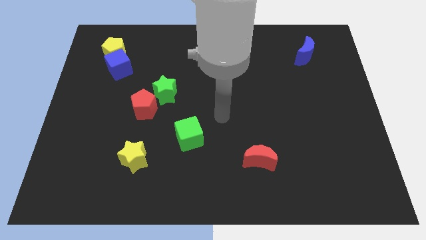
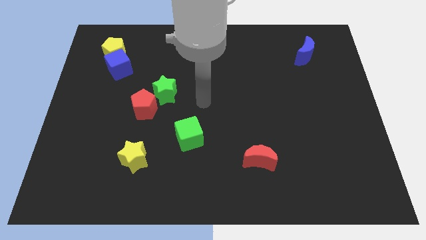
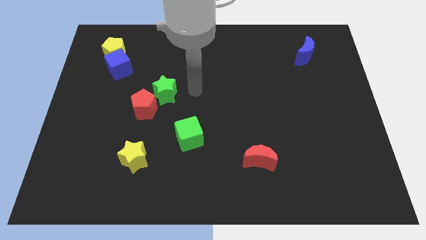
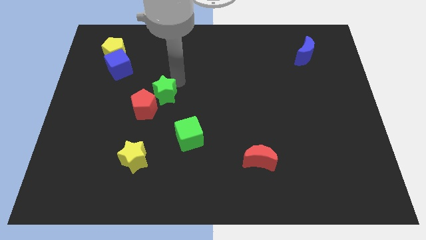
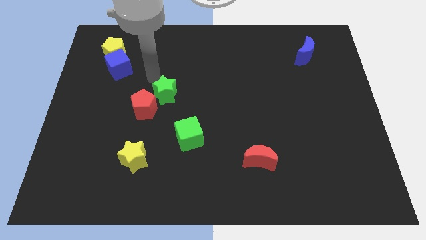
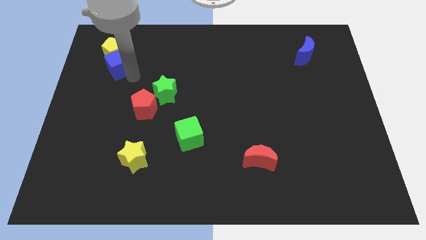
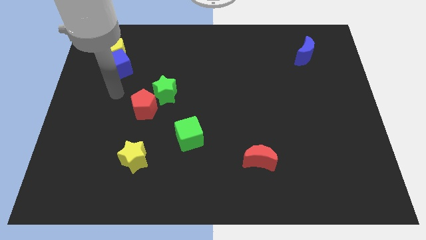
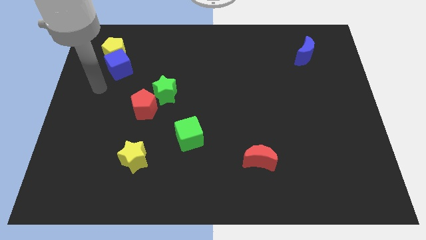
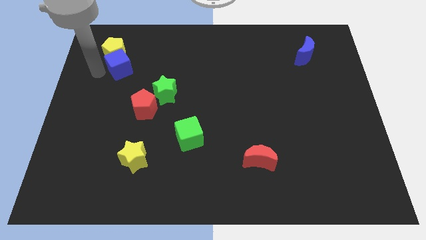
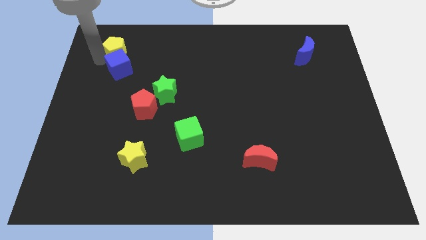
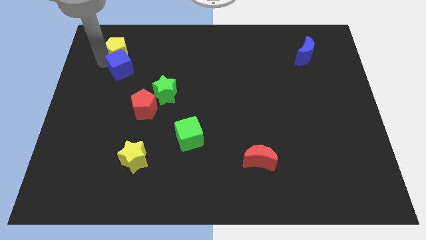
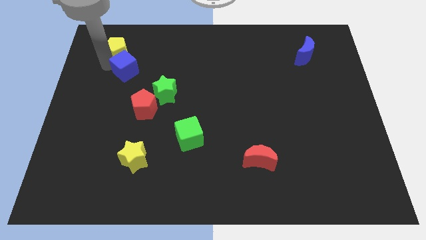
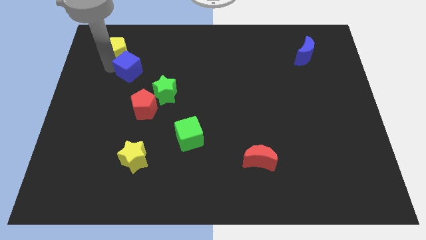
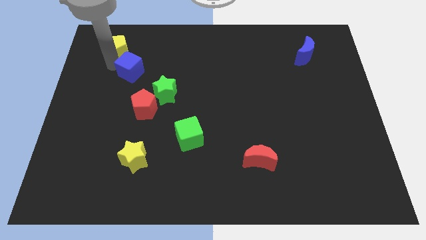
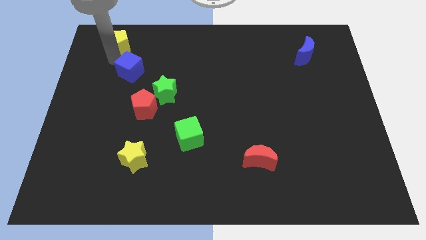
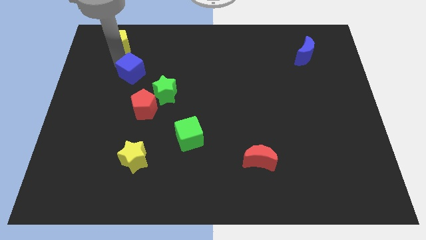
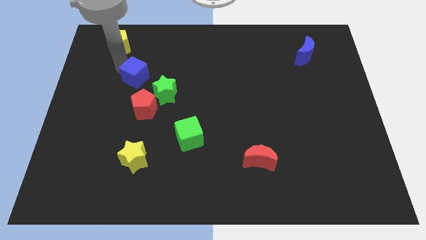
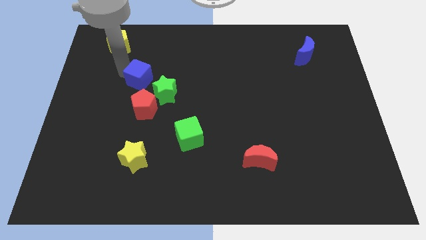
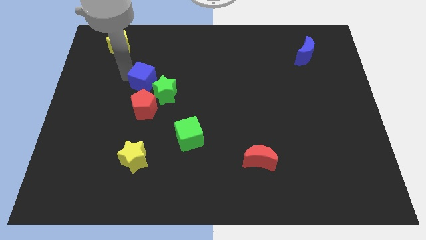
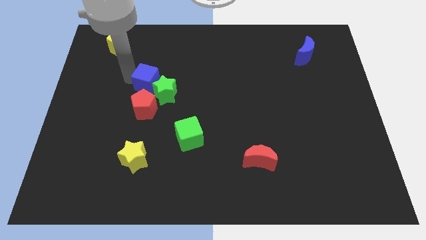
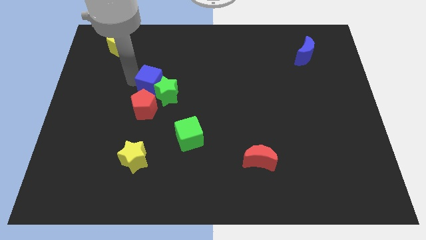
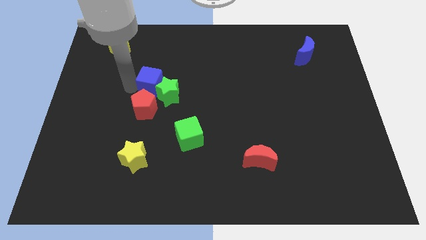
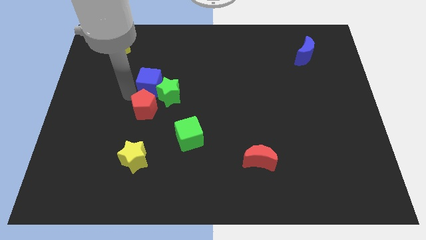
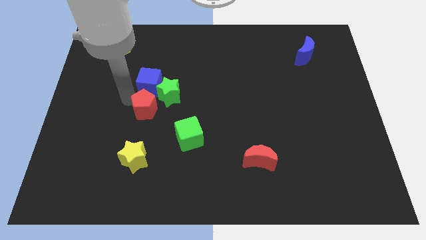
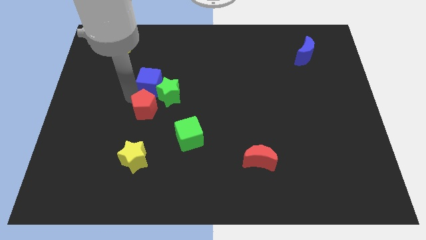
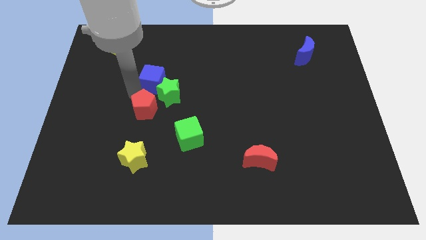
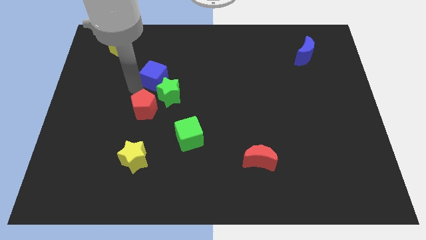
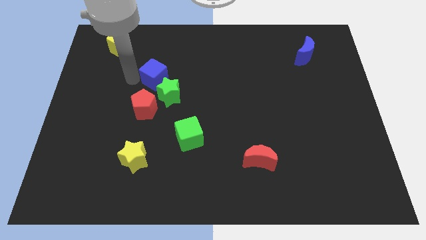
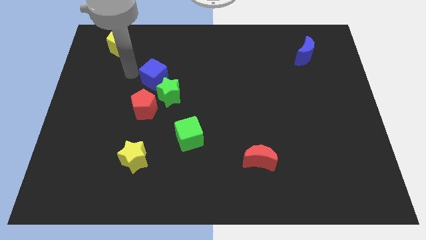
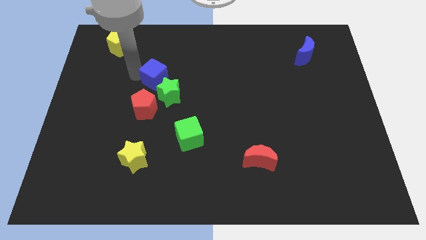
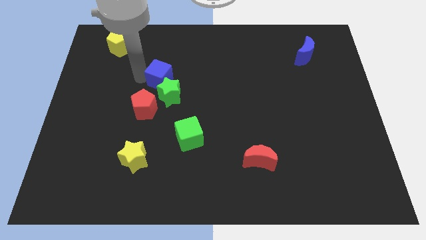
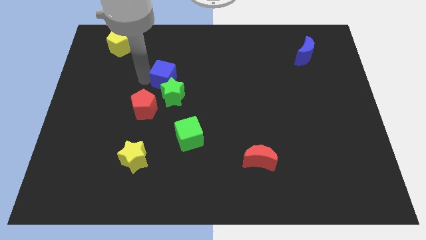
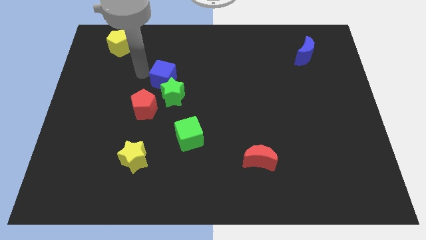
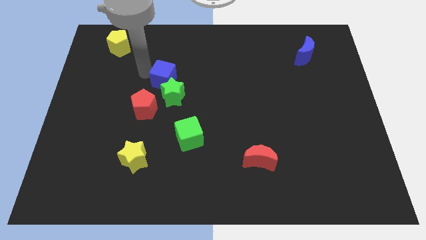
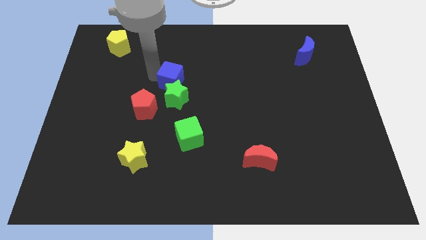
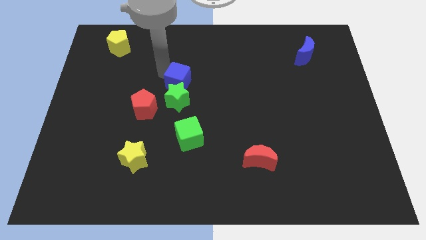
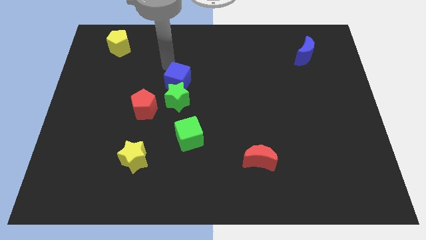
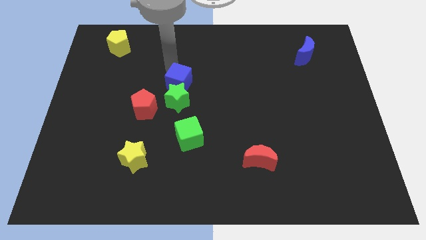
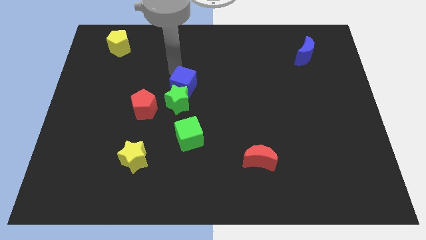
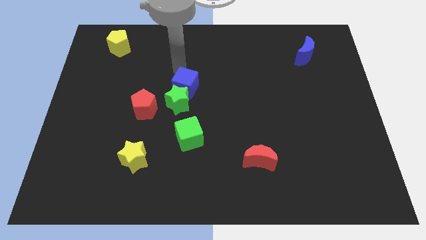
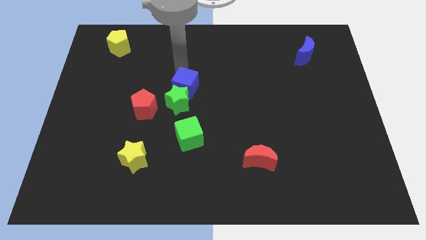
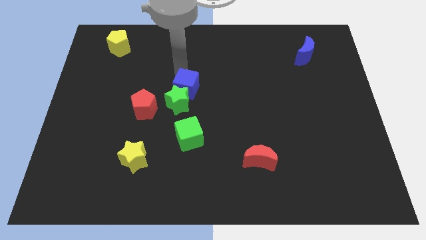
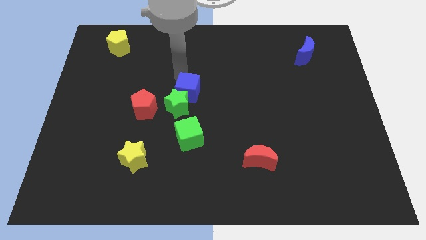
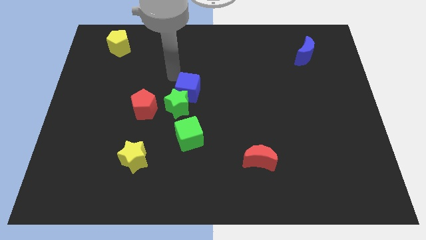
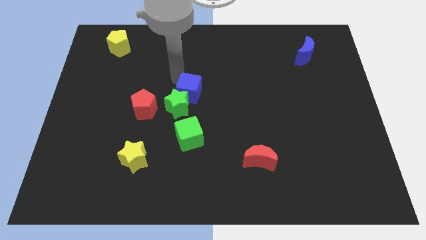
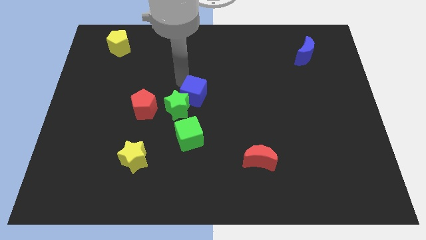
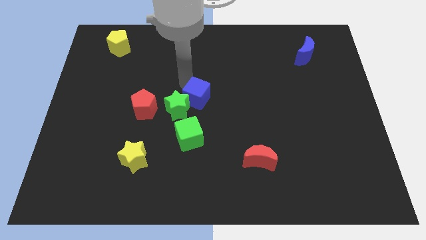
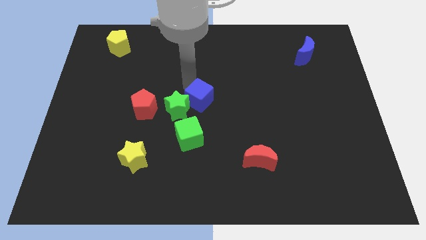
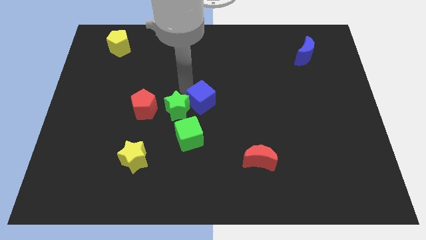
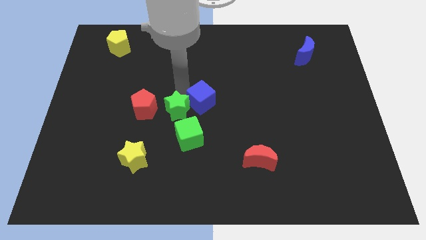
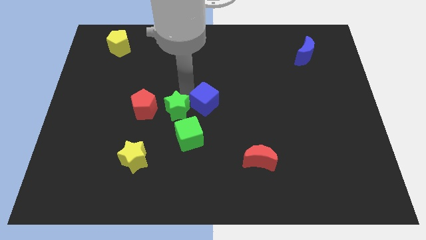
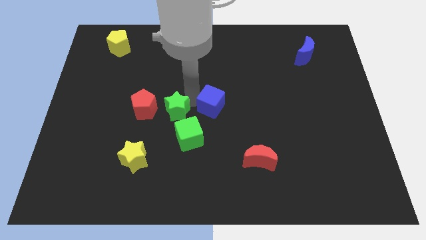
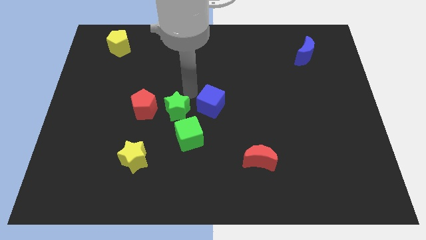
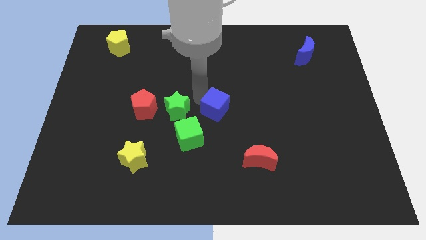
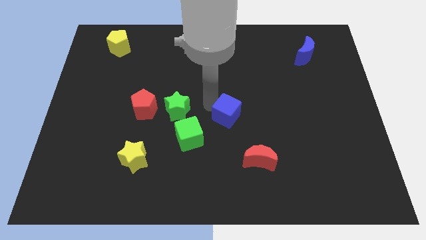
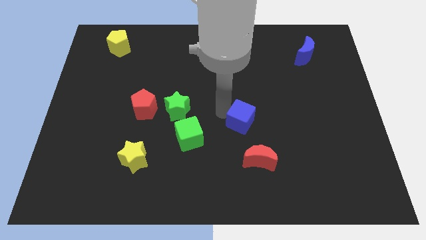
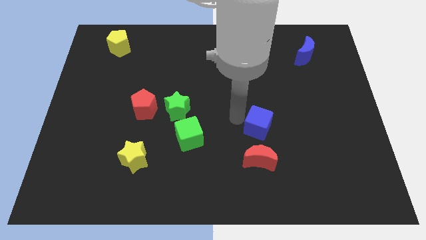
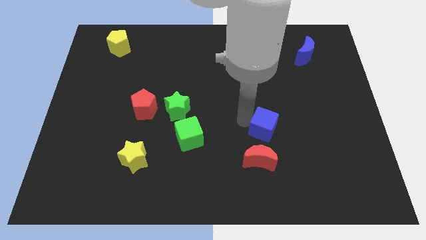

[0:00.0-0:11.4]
slide the blue cube diagonally up and to the right of the red moon

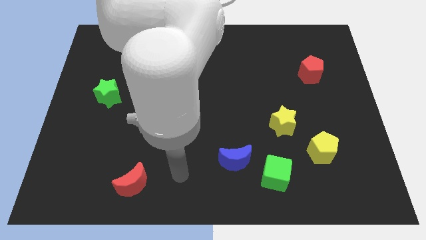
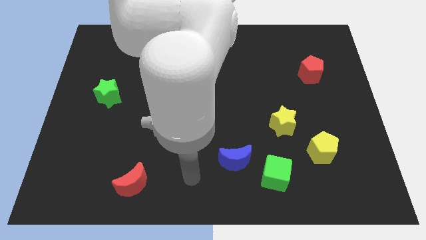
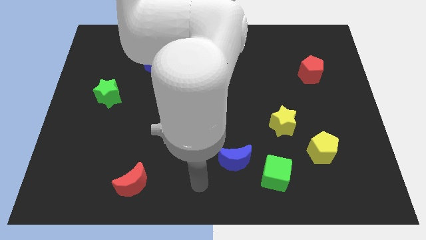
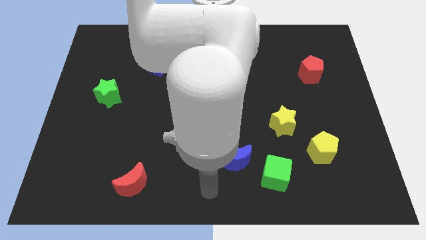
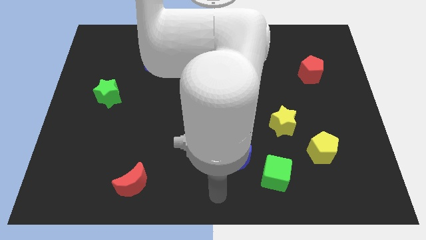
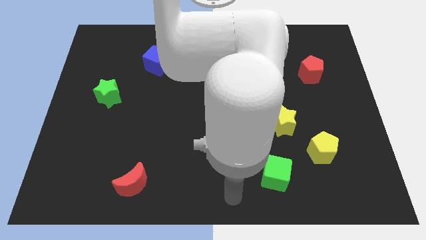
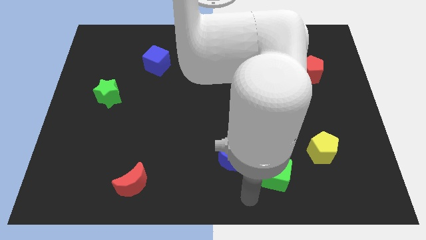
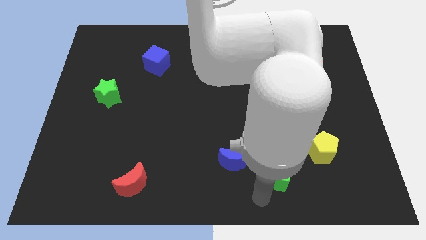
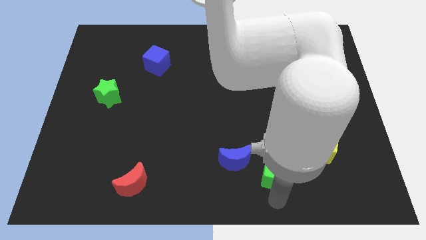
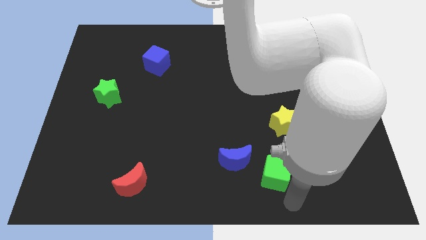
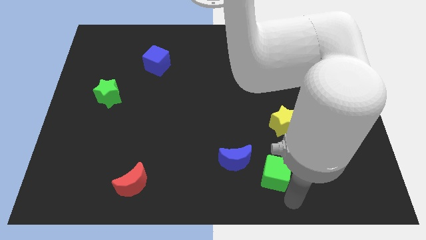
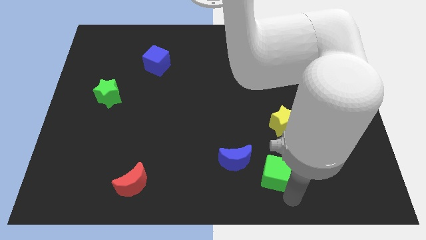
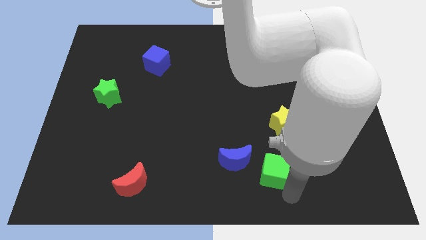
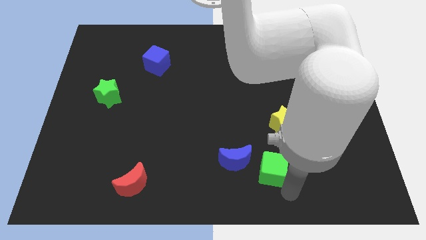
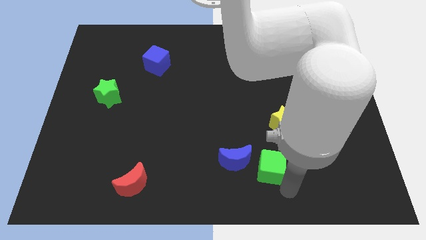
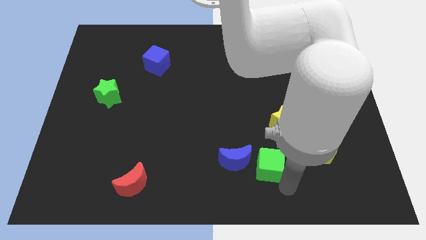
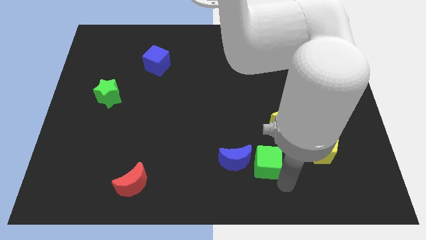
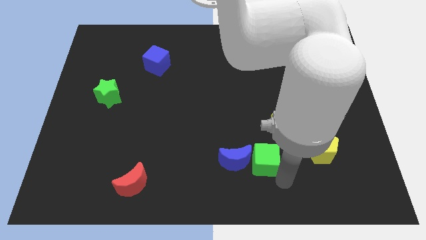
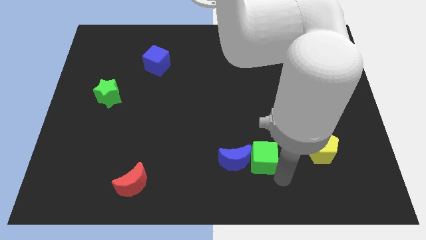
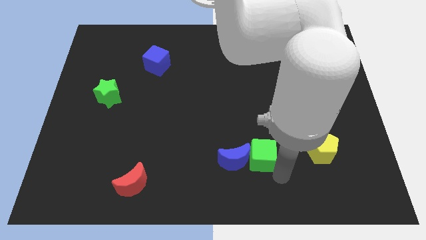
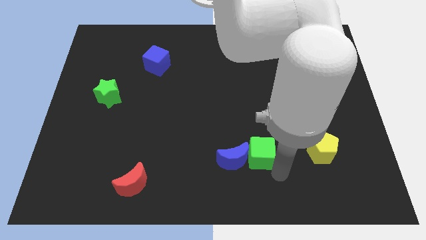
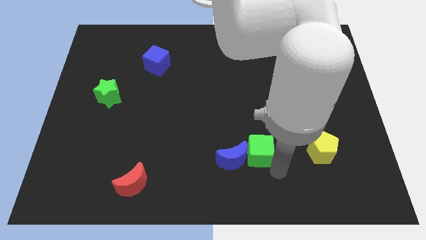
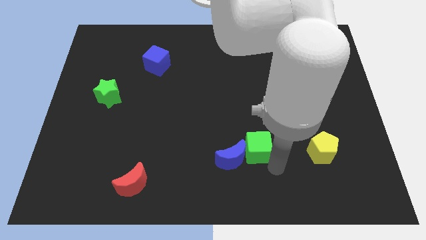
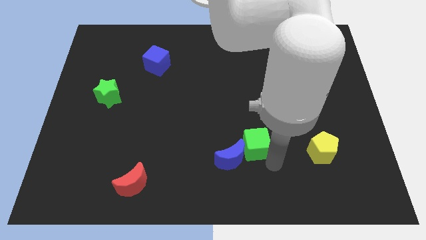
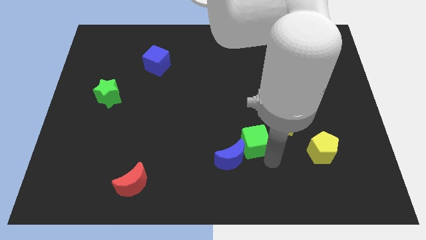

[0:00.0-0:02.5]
push the green cube just left of the yellow star
